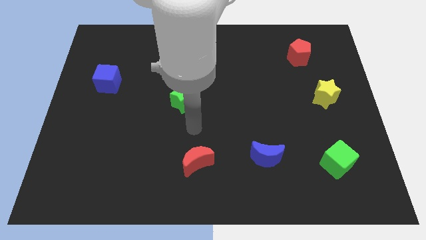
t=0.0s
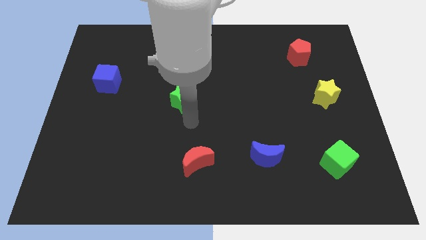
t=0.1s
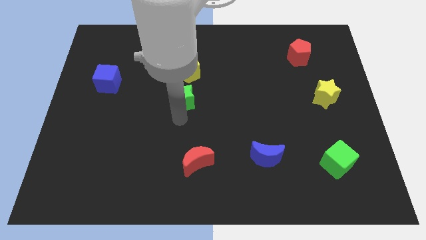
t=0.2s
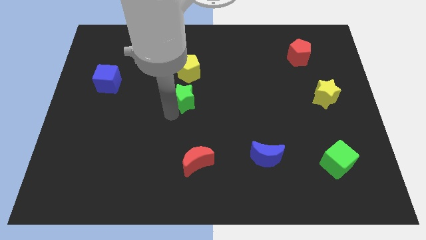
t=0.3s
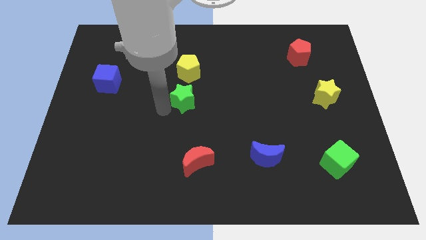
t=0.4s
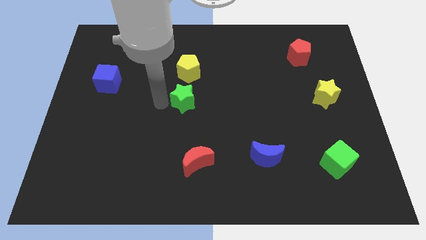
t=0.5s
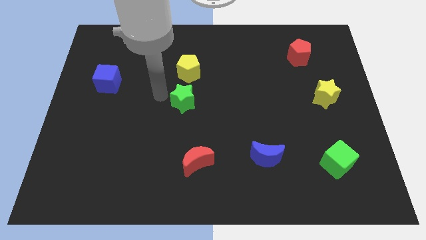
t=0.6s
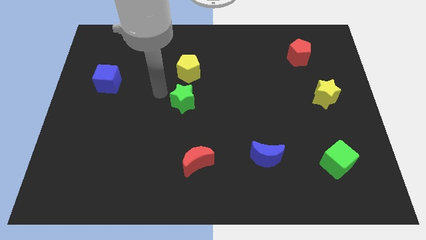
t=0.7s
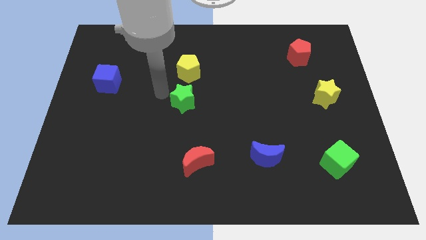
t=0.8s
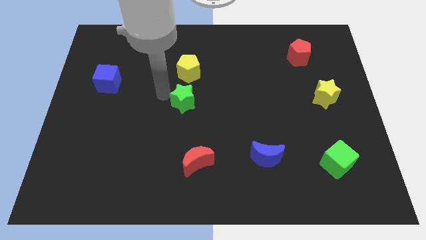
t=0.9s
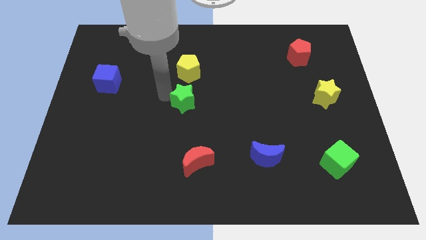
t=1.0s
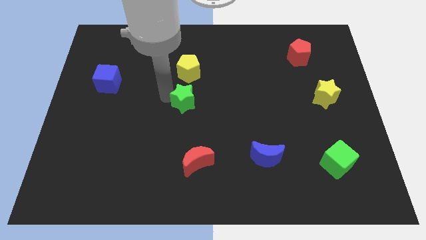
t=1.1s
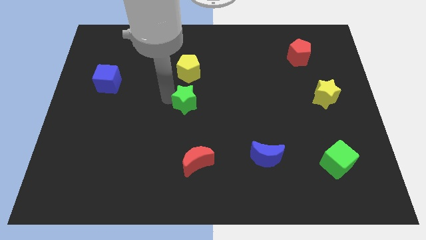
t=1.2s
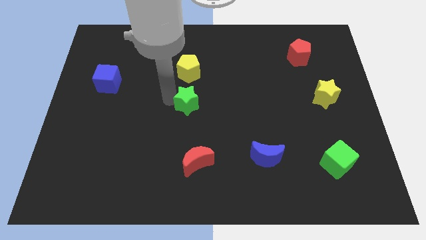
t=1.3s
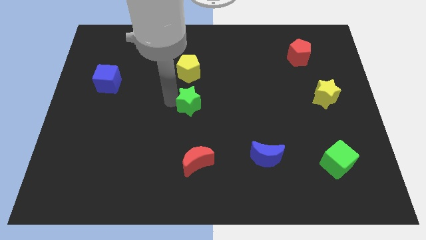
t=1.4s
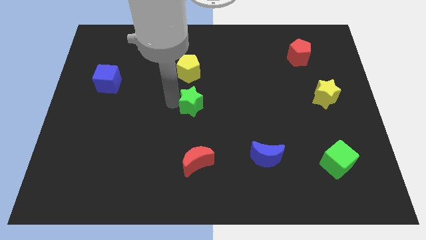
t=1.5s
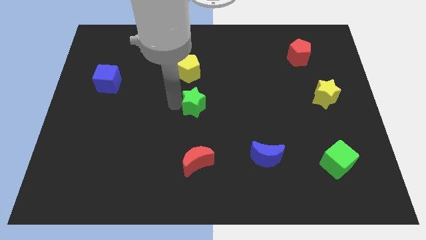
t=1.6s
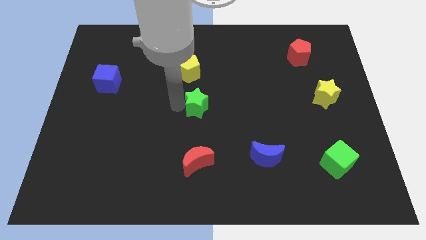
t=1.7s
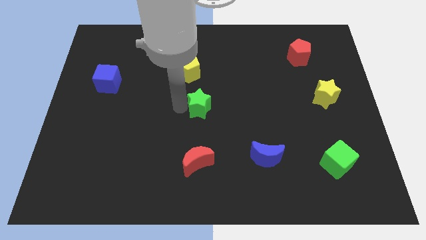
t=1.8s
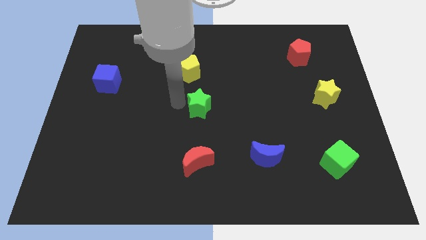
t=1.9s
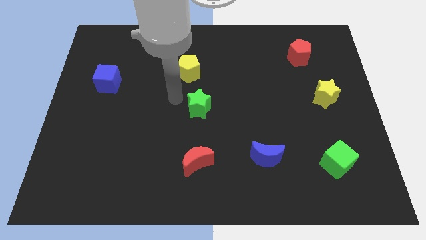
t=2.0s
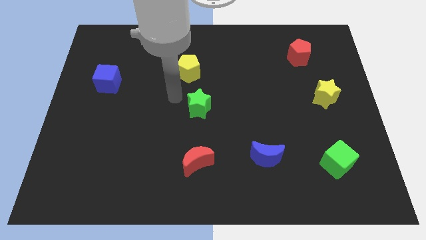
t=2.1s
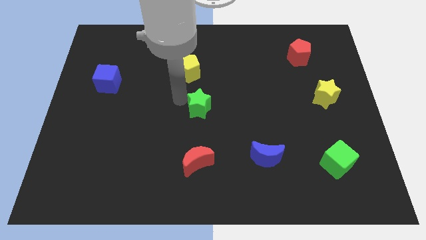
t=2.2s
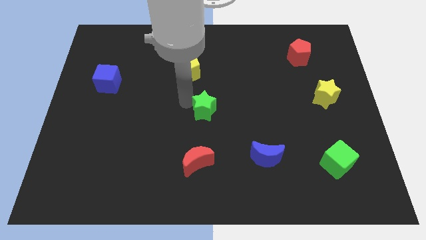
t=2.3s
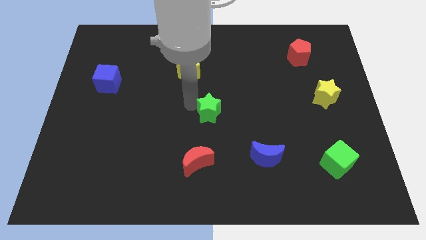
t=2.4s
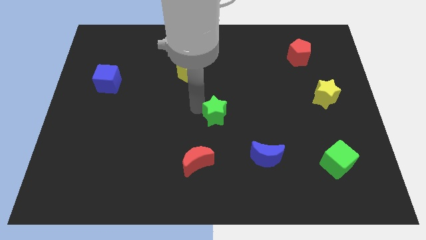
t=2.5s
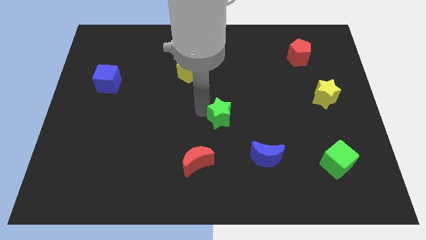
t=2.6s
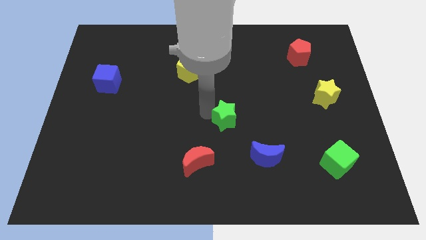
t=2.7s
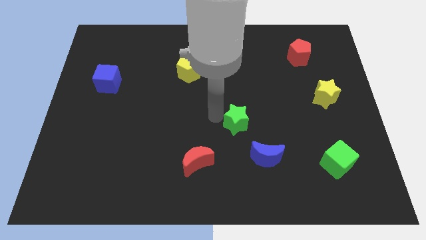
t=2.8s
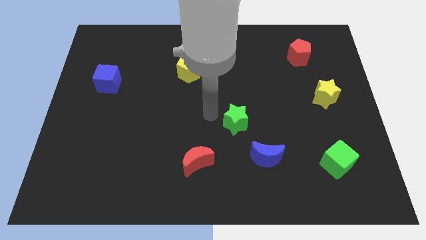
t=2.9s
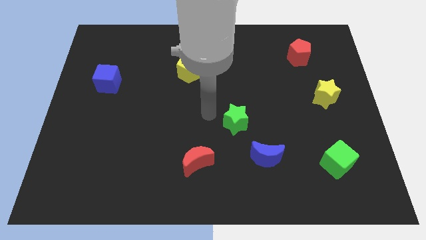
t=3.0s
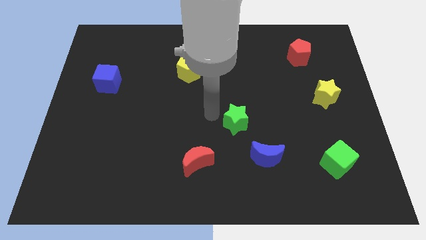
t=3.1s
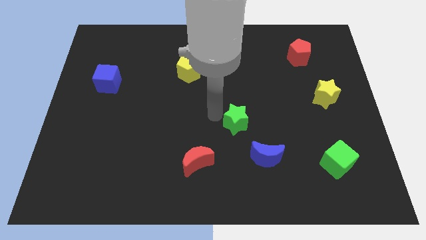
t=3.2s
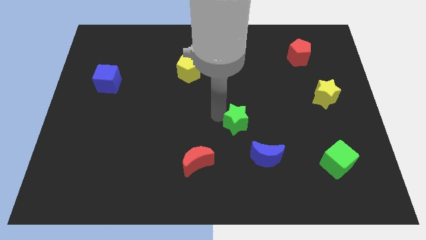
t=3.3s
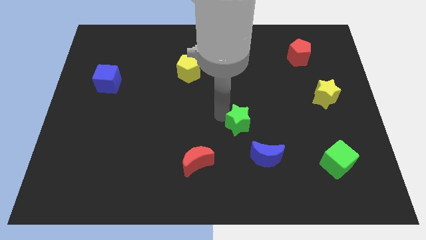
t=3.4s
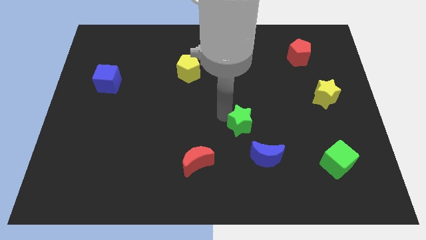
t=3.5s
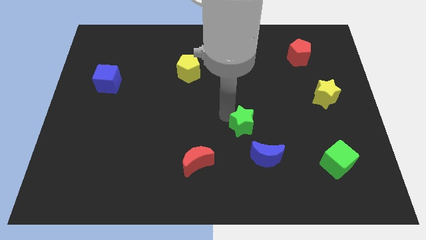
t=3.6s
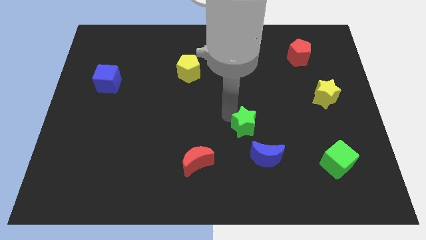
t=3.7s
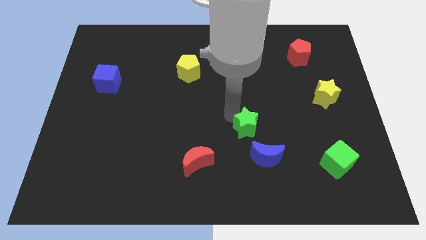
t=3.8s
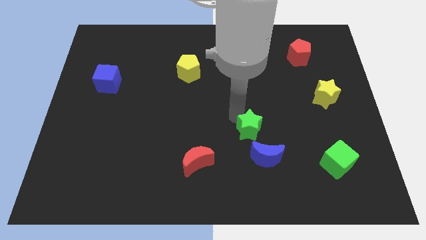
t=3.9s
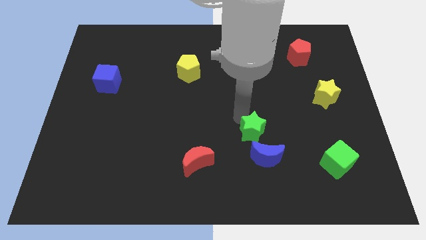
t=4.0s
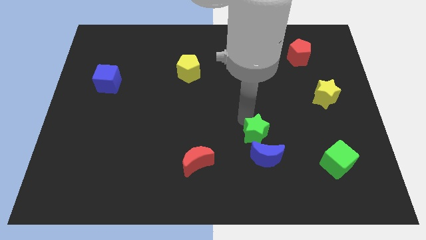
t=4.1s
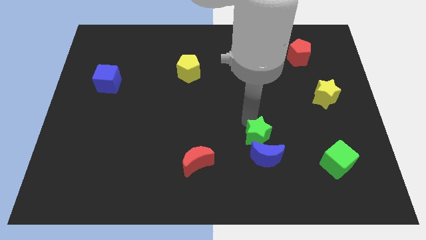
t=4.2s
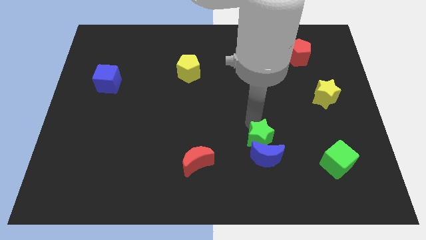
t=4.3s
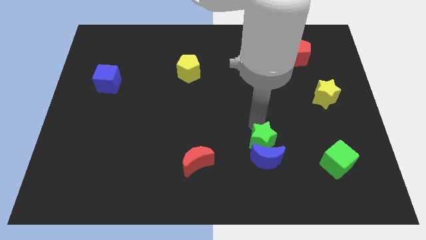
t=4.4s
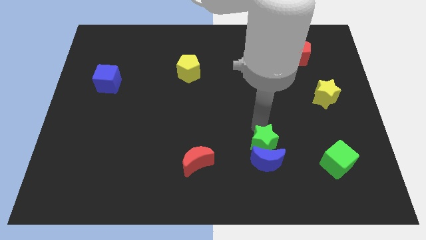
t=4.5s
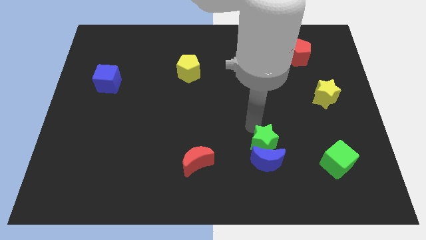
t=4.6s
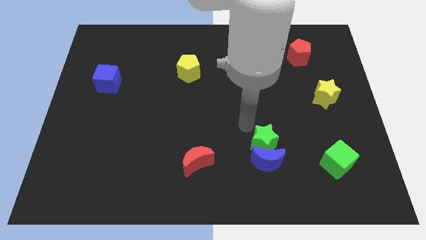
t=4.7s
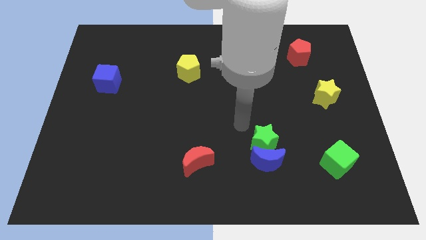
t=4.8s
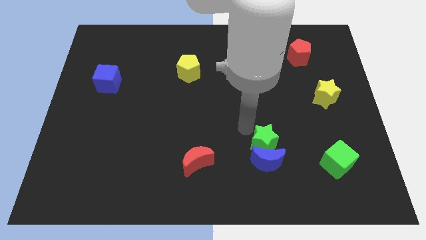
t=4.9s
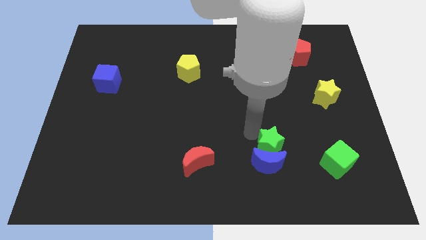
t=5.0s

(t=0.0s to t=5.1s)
put the green star left of the green cube

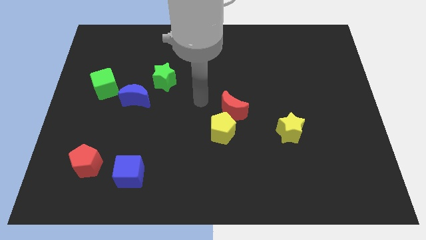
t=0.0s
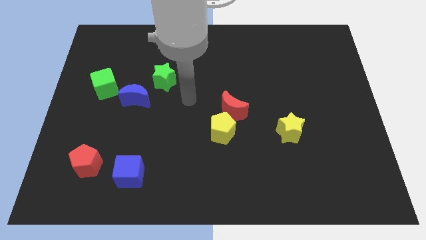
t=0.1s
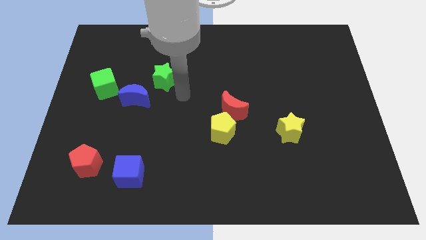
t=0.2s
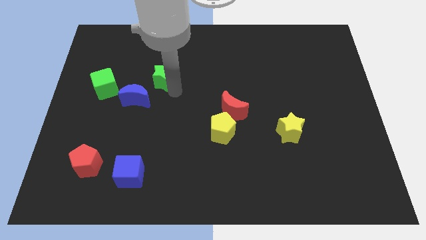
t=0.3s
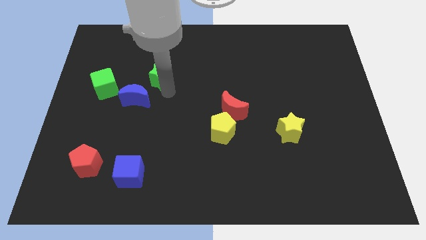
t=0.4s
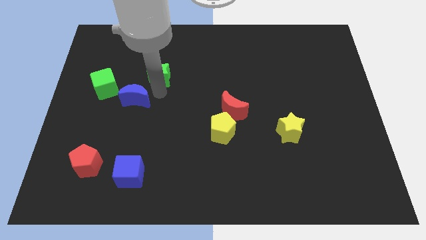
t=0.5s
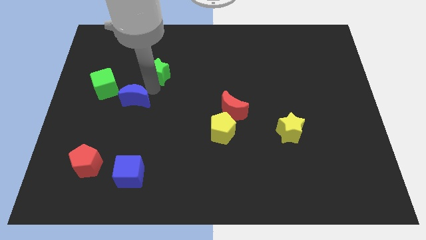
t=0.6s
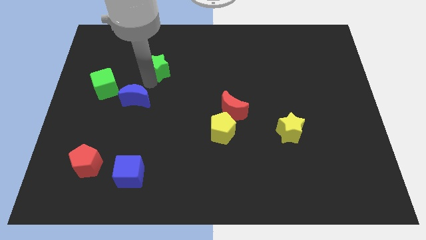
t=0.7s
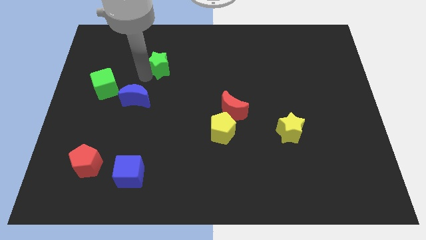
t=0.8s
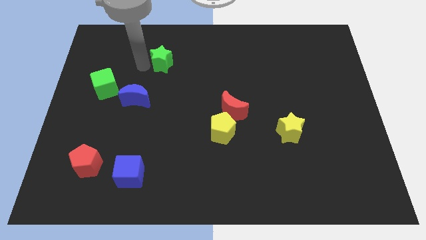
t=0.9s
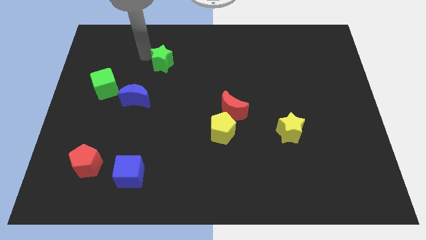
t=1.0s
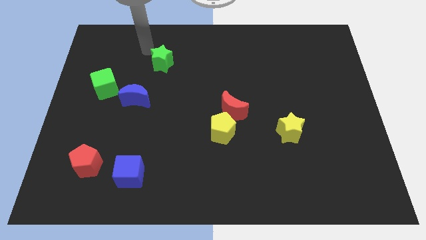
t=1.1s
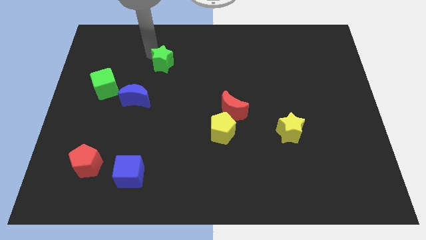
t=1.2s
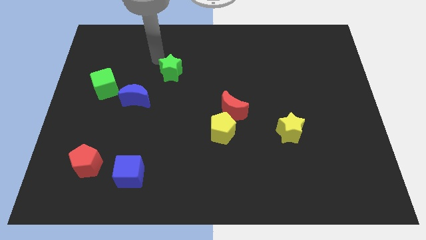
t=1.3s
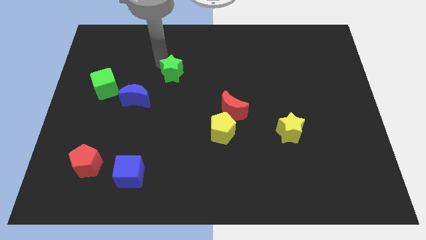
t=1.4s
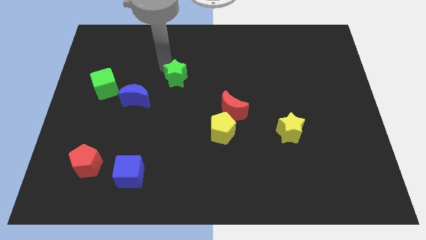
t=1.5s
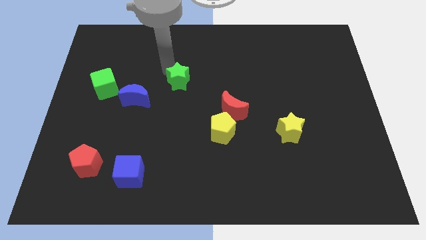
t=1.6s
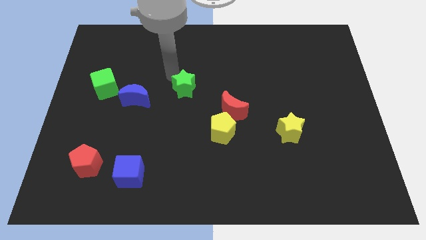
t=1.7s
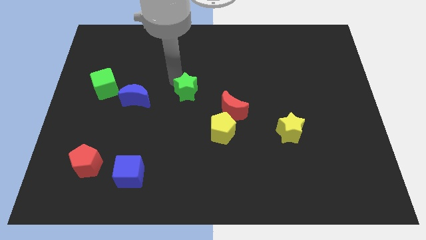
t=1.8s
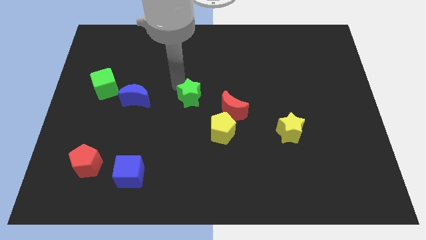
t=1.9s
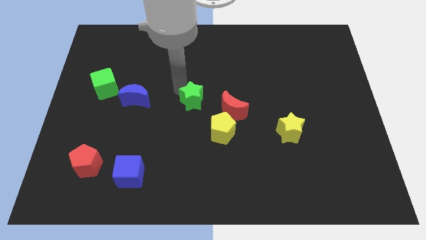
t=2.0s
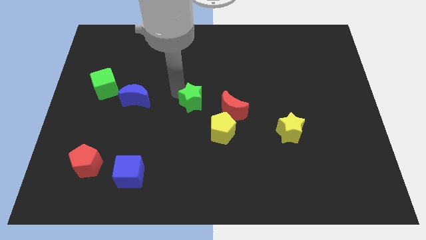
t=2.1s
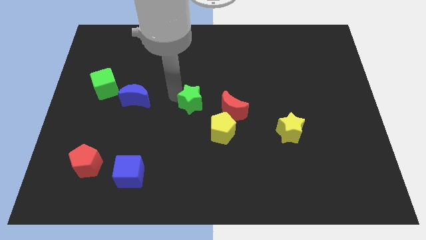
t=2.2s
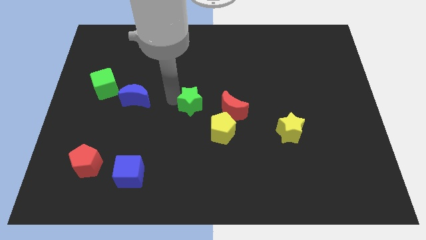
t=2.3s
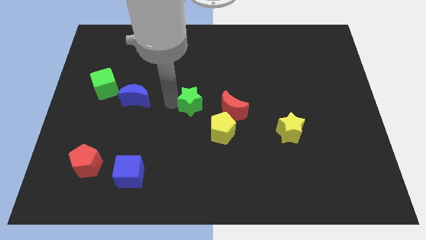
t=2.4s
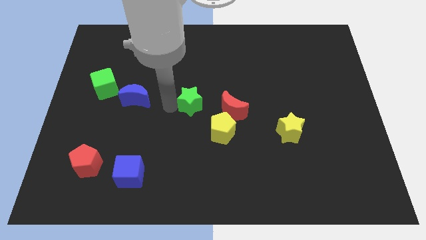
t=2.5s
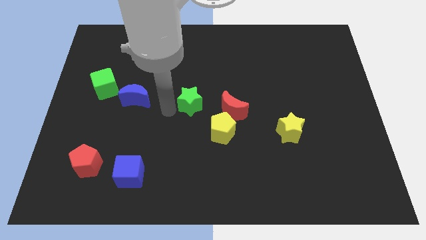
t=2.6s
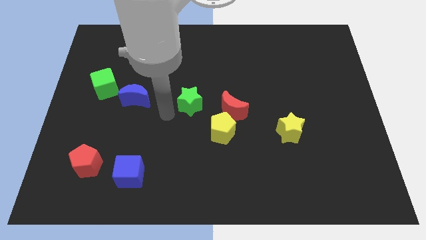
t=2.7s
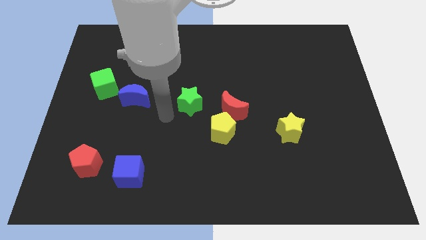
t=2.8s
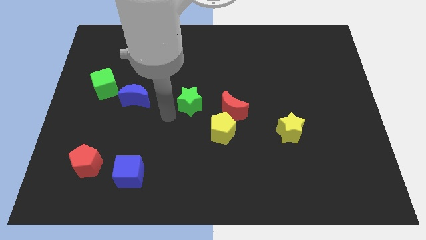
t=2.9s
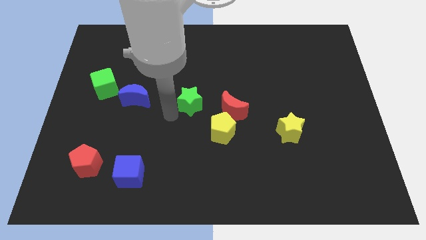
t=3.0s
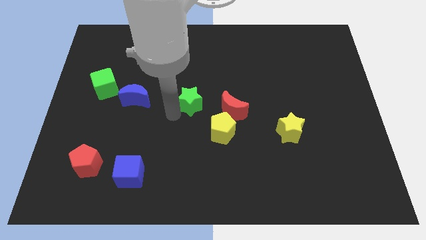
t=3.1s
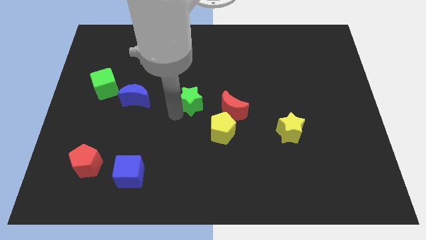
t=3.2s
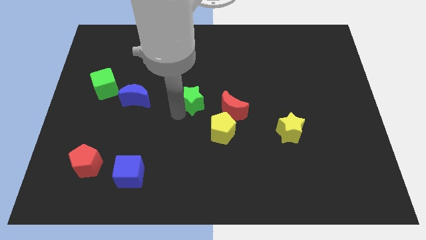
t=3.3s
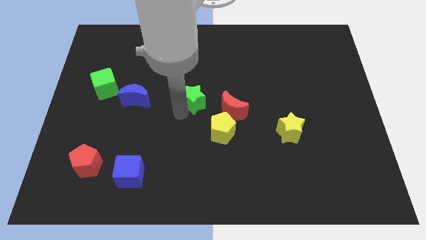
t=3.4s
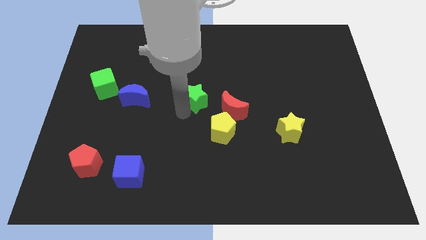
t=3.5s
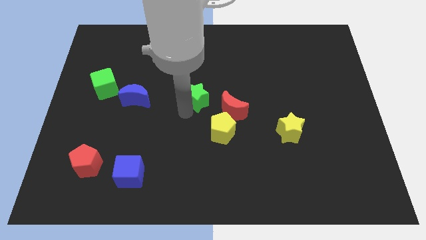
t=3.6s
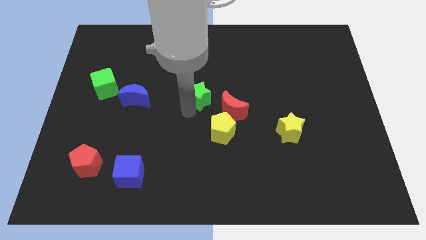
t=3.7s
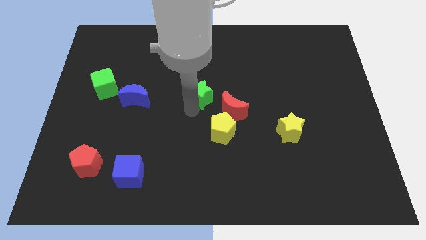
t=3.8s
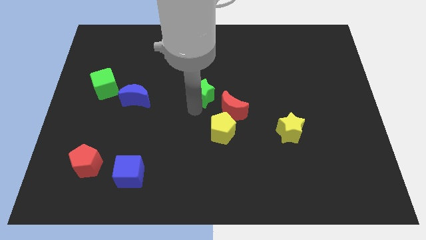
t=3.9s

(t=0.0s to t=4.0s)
push the green star to the top side of the yellow pentagon
